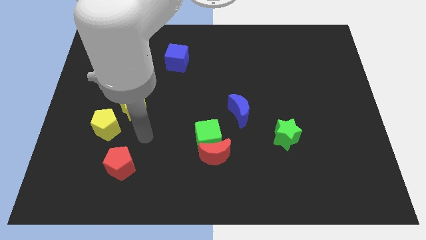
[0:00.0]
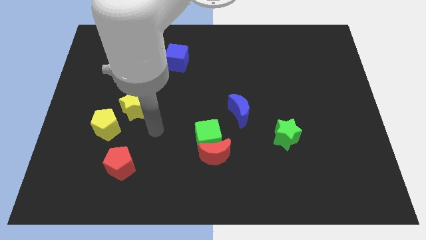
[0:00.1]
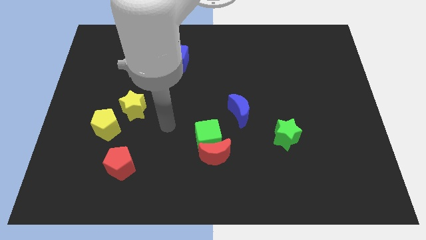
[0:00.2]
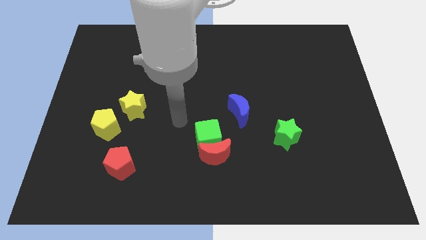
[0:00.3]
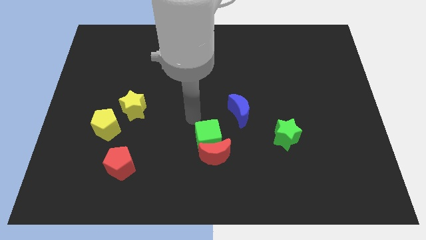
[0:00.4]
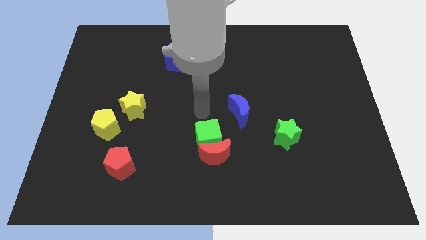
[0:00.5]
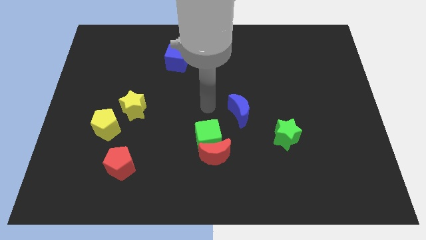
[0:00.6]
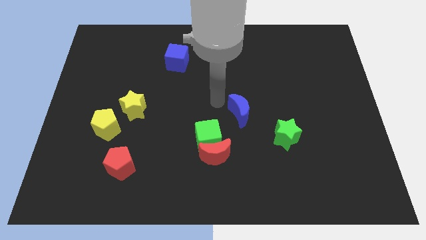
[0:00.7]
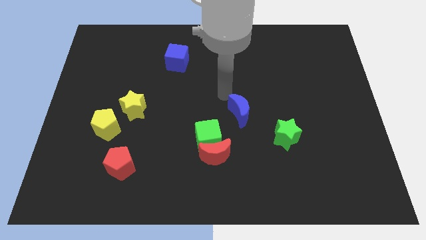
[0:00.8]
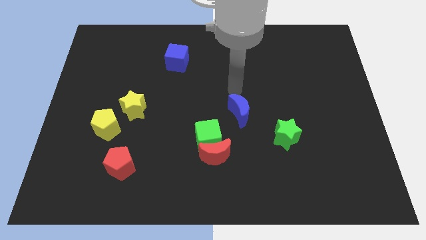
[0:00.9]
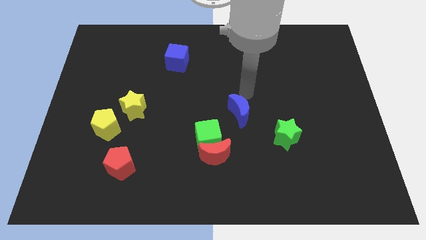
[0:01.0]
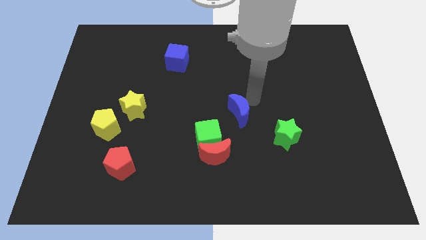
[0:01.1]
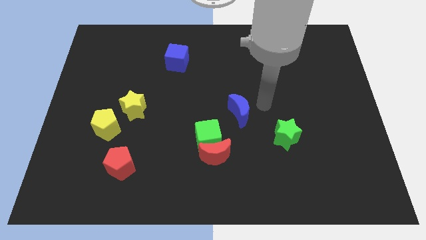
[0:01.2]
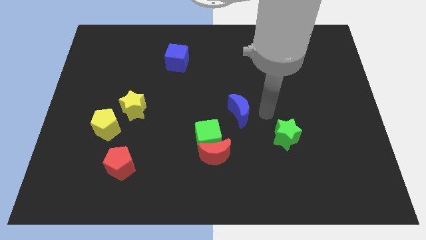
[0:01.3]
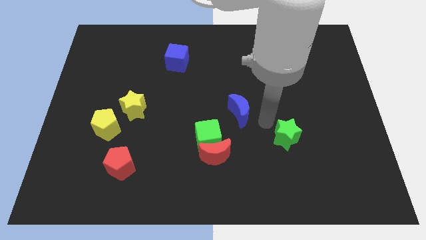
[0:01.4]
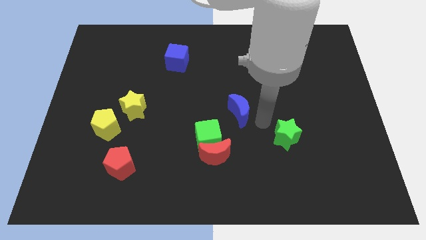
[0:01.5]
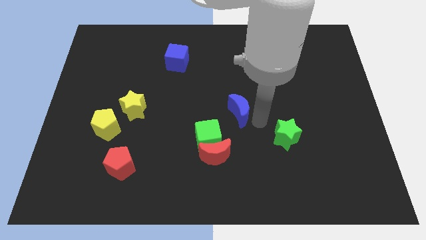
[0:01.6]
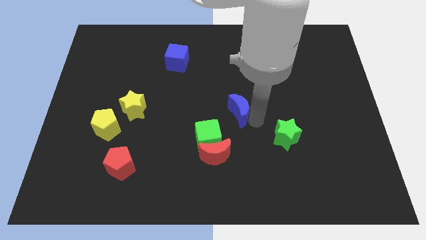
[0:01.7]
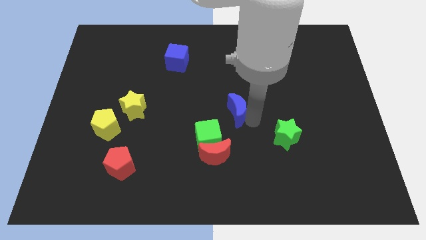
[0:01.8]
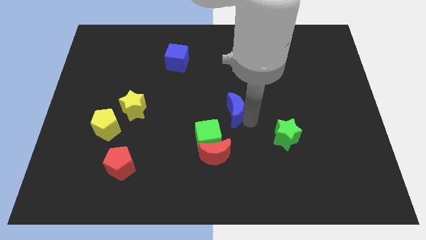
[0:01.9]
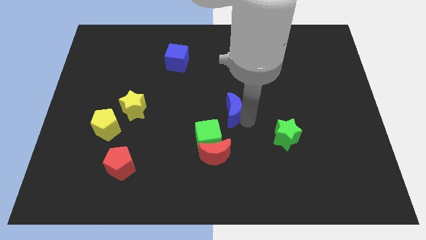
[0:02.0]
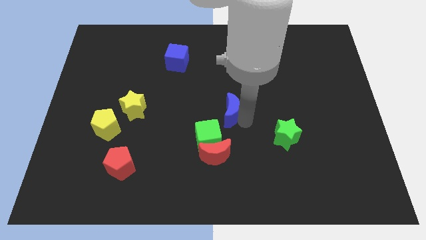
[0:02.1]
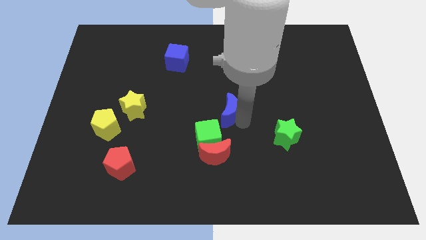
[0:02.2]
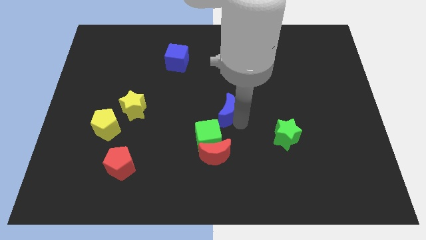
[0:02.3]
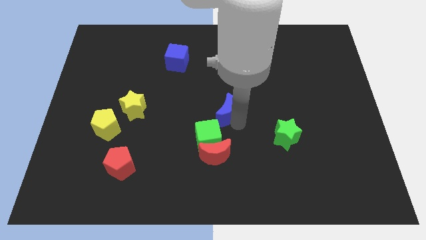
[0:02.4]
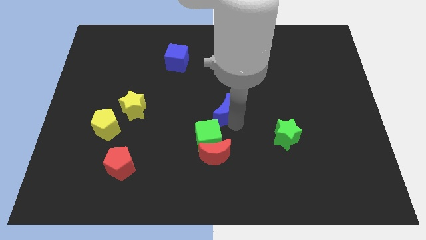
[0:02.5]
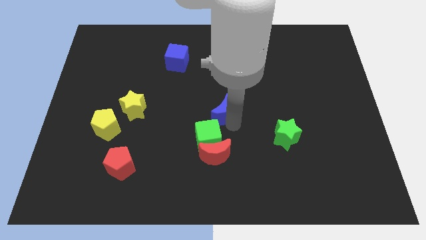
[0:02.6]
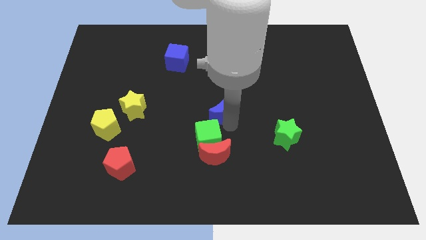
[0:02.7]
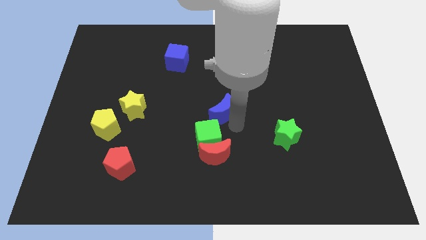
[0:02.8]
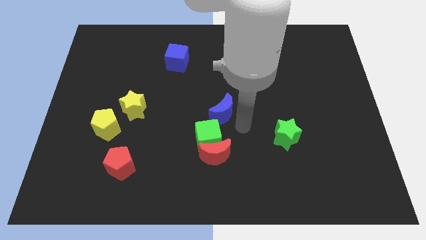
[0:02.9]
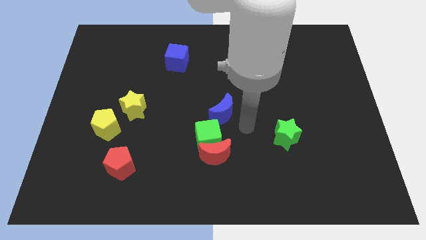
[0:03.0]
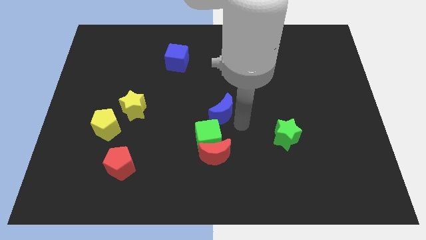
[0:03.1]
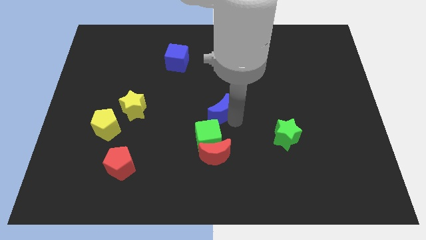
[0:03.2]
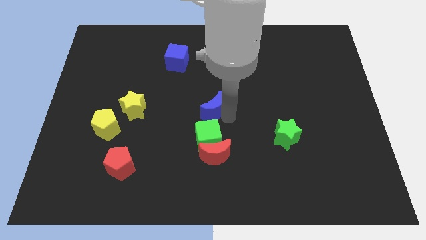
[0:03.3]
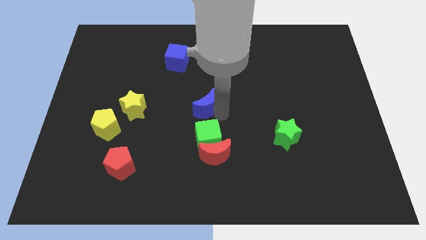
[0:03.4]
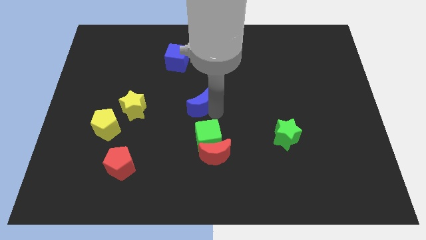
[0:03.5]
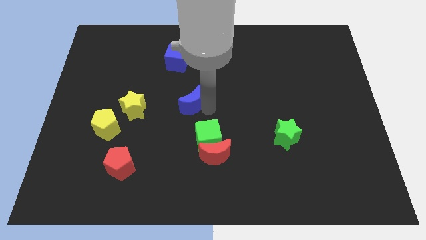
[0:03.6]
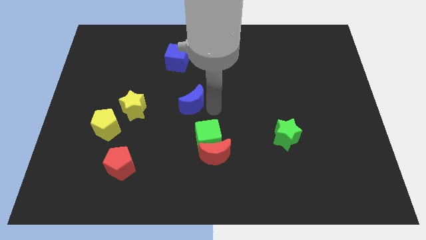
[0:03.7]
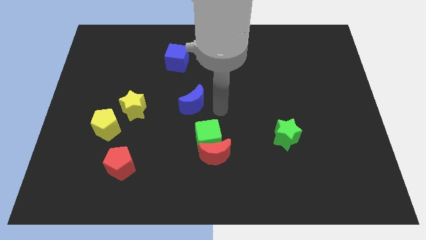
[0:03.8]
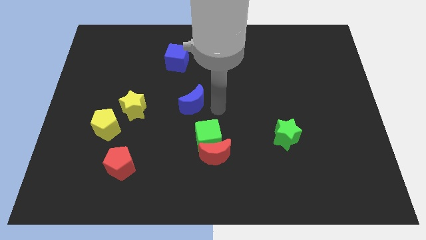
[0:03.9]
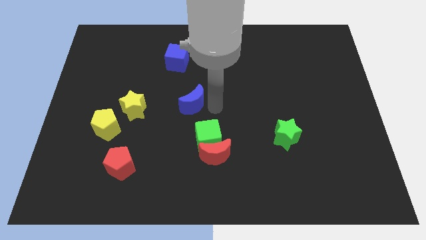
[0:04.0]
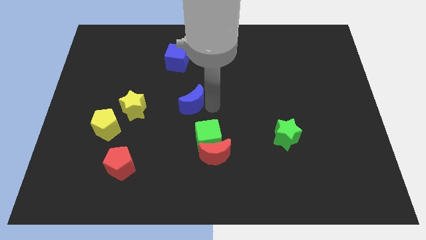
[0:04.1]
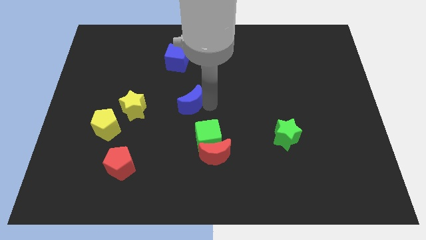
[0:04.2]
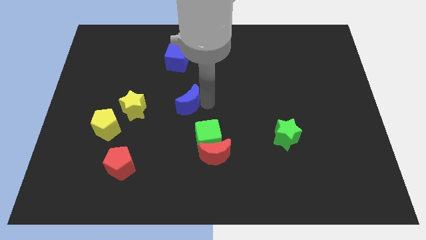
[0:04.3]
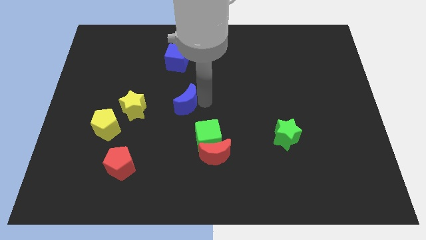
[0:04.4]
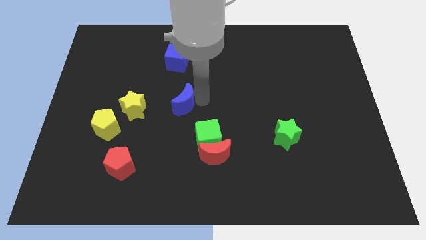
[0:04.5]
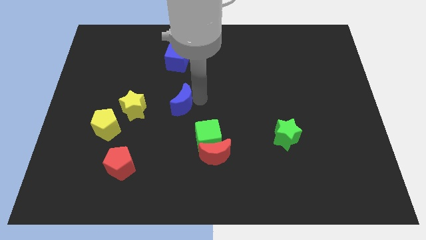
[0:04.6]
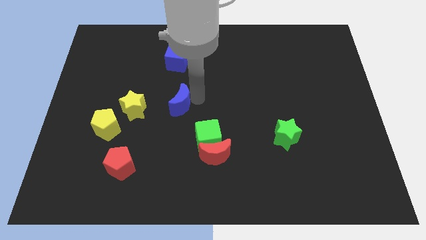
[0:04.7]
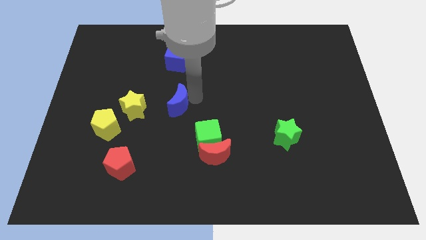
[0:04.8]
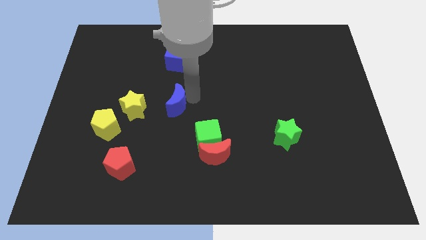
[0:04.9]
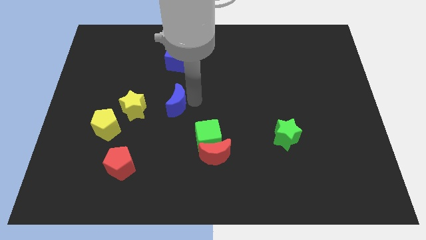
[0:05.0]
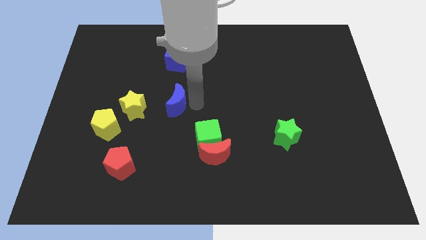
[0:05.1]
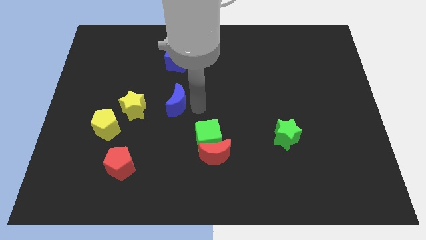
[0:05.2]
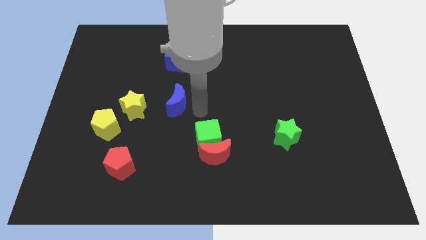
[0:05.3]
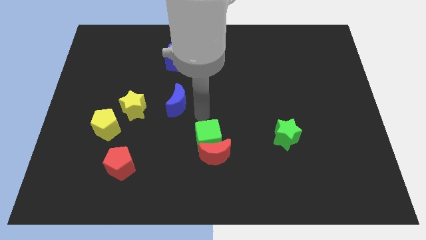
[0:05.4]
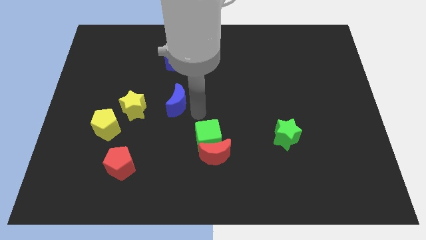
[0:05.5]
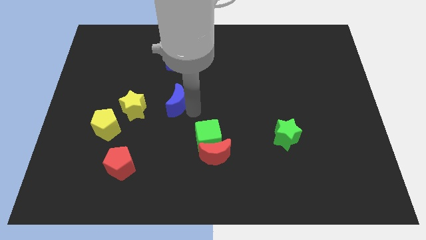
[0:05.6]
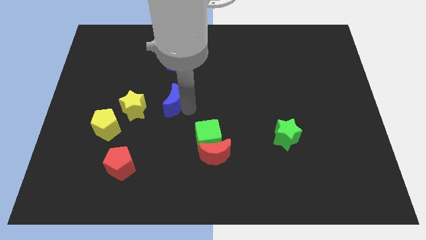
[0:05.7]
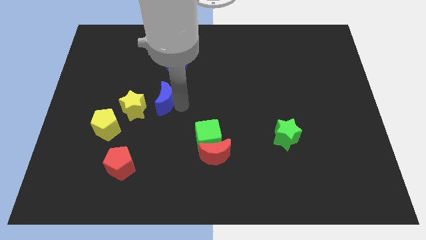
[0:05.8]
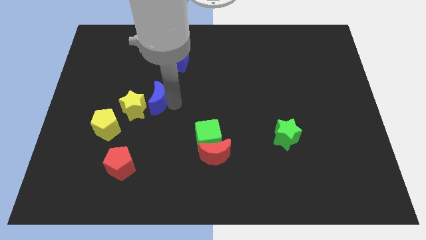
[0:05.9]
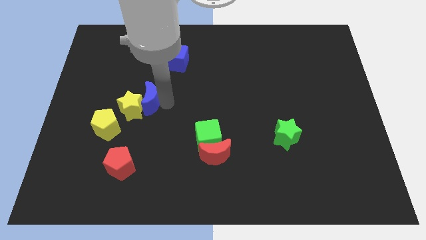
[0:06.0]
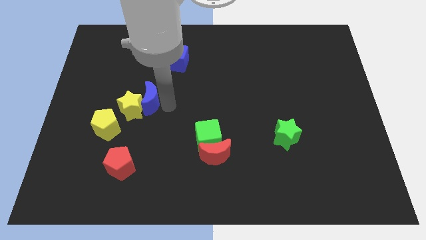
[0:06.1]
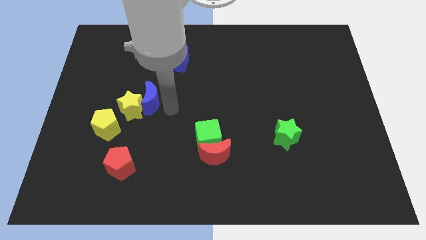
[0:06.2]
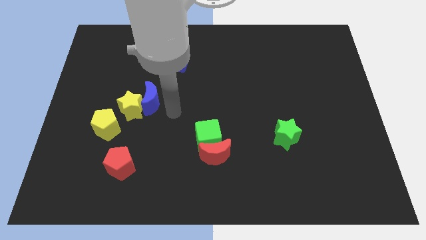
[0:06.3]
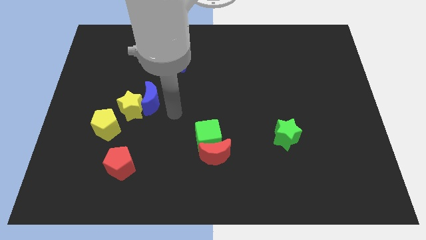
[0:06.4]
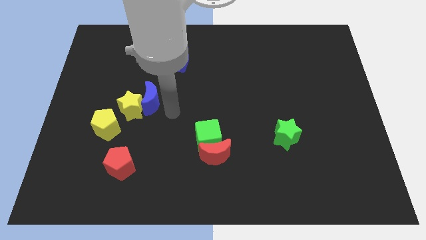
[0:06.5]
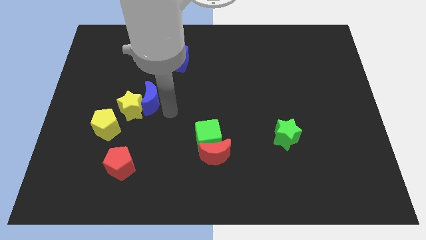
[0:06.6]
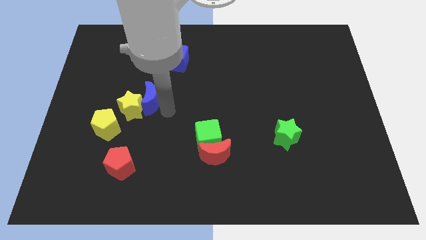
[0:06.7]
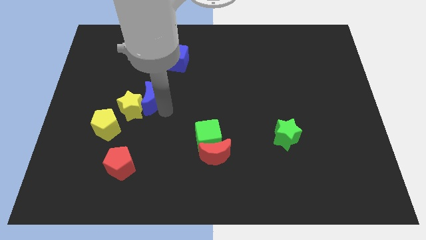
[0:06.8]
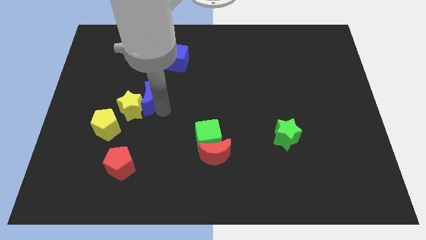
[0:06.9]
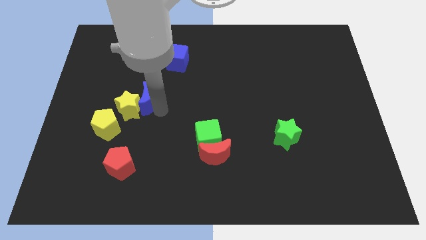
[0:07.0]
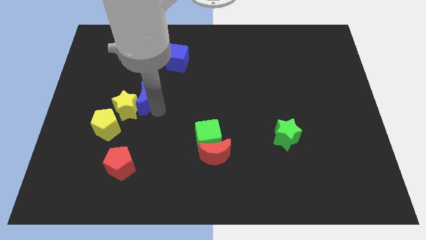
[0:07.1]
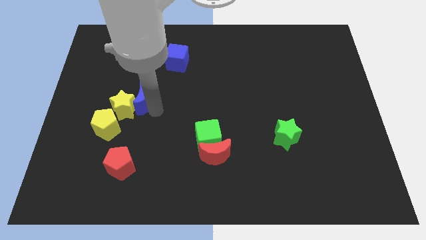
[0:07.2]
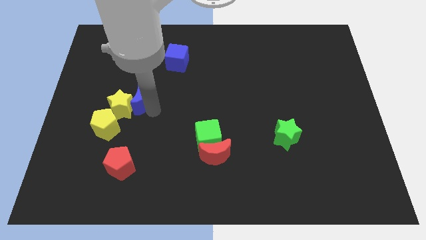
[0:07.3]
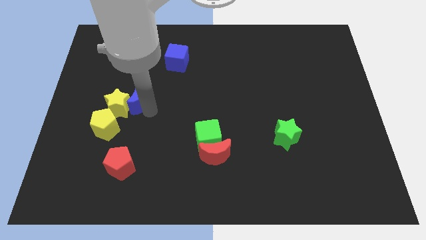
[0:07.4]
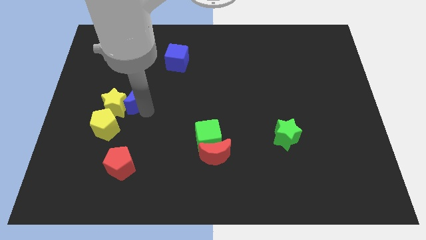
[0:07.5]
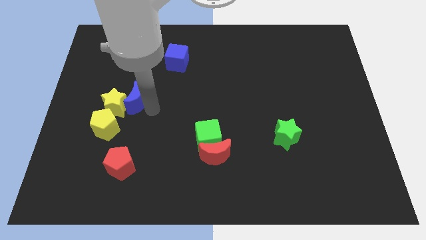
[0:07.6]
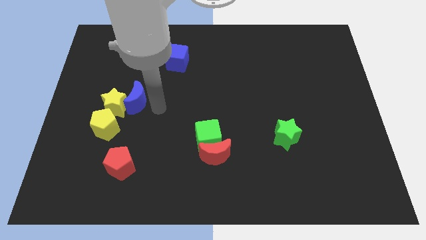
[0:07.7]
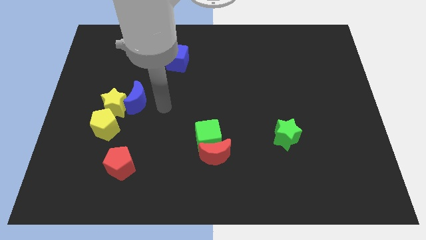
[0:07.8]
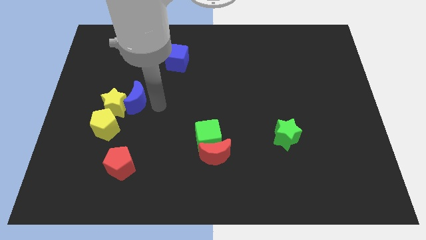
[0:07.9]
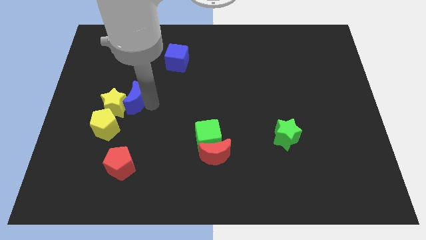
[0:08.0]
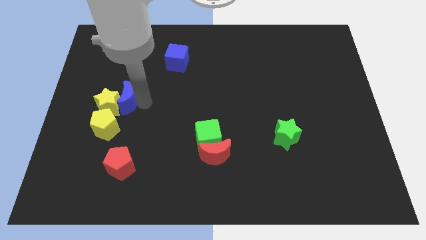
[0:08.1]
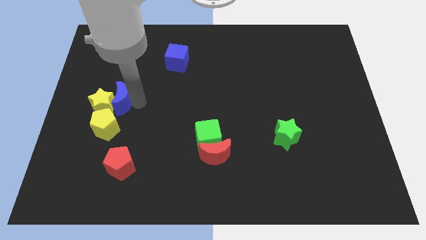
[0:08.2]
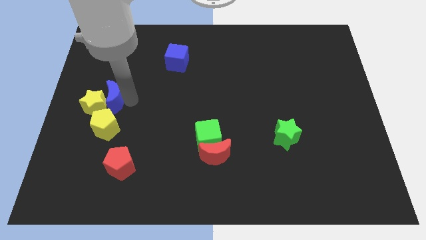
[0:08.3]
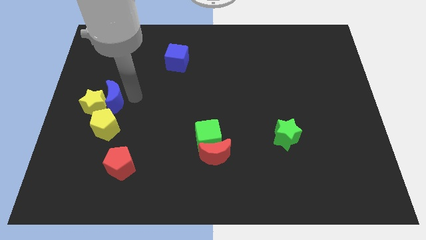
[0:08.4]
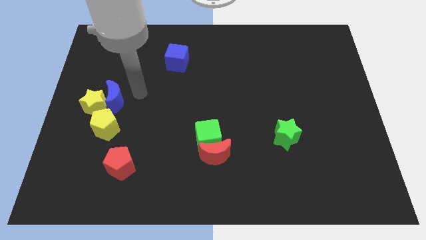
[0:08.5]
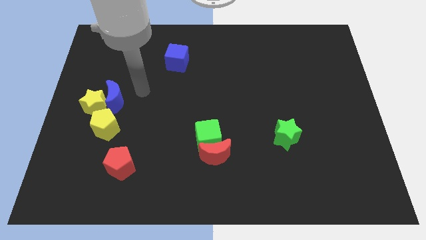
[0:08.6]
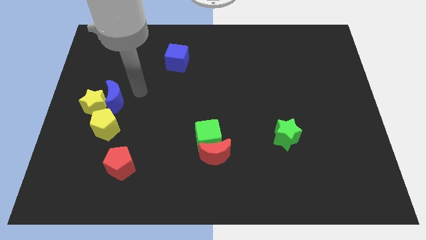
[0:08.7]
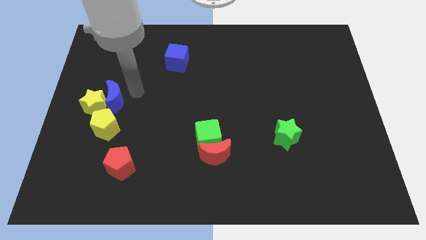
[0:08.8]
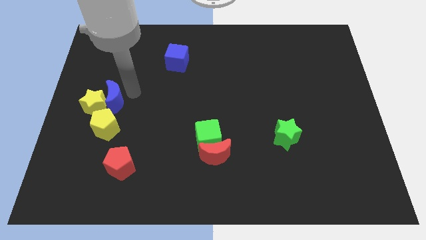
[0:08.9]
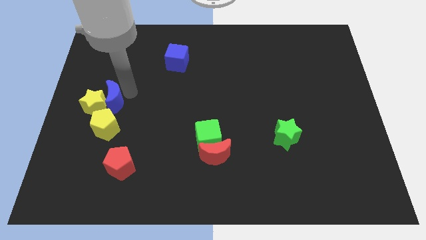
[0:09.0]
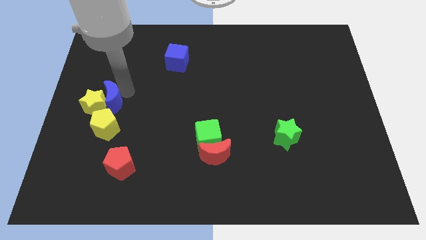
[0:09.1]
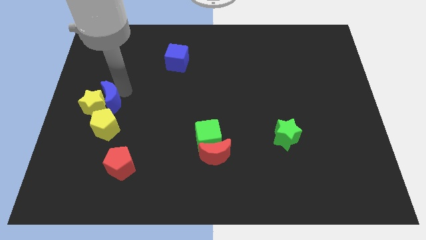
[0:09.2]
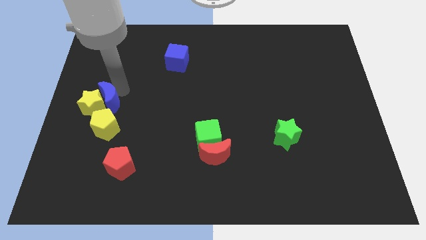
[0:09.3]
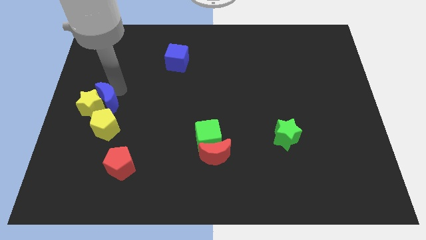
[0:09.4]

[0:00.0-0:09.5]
slide the blue moon to the top left of the yellow pentagon
